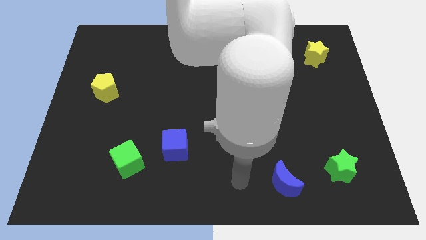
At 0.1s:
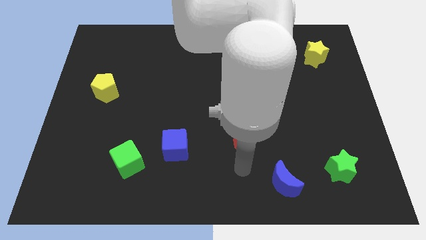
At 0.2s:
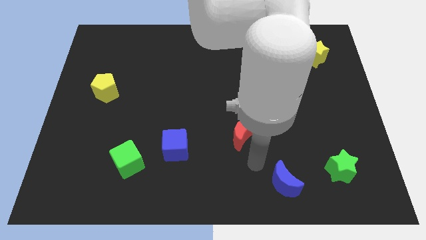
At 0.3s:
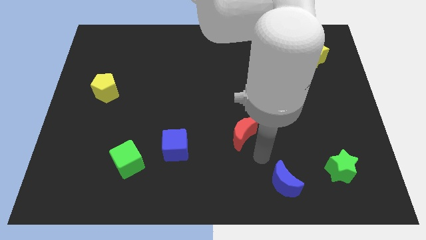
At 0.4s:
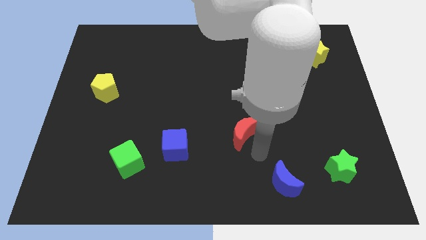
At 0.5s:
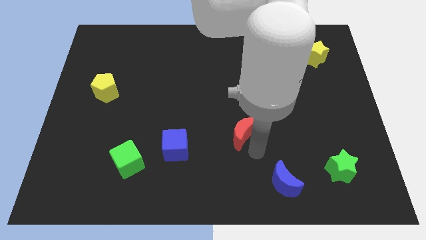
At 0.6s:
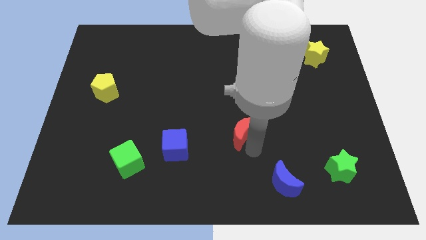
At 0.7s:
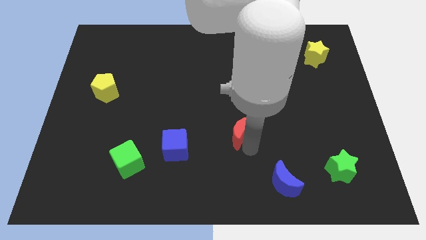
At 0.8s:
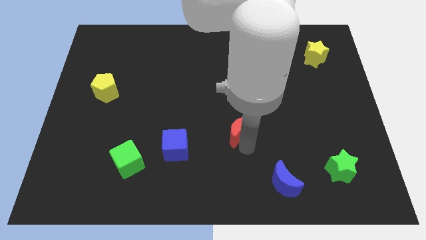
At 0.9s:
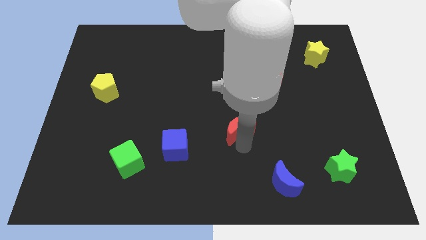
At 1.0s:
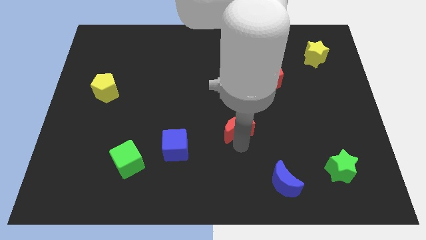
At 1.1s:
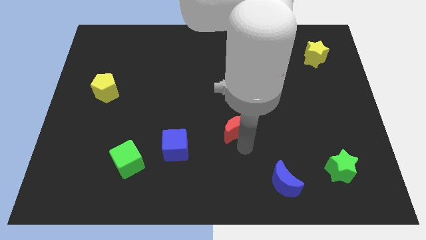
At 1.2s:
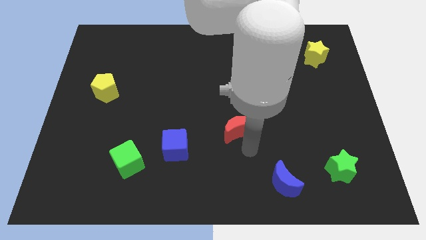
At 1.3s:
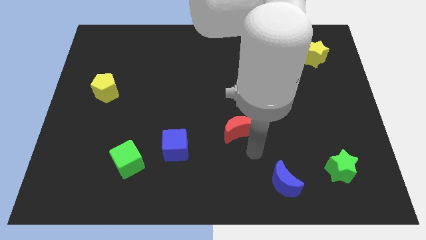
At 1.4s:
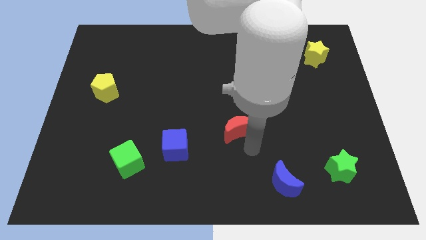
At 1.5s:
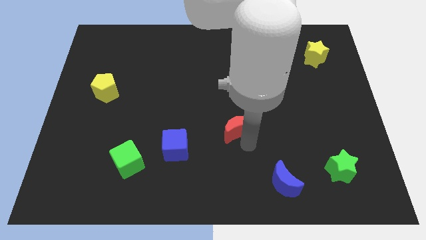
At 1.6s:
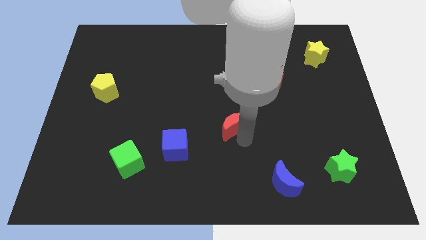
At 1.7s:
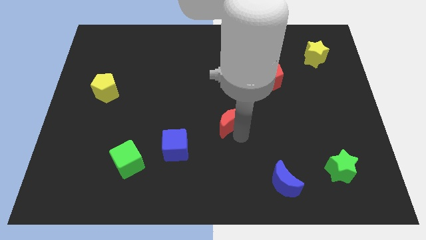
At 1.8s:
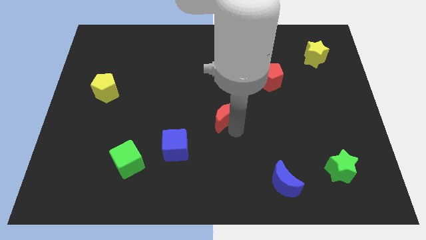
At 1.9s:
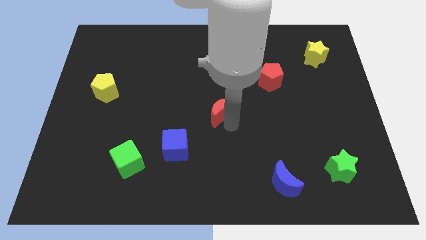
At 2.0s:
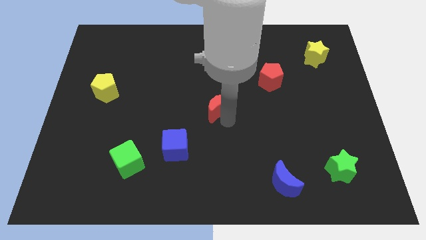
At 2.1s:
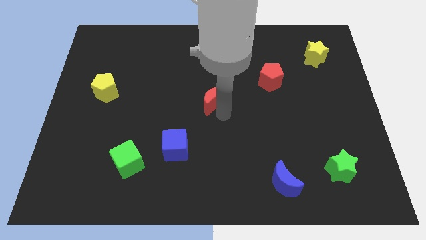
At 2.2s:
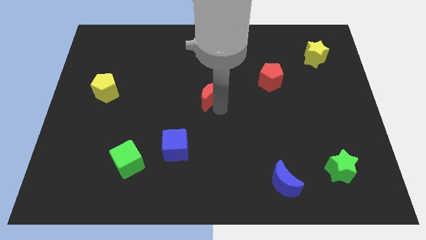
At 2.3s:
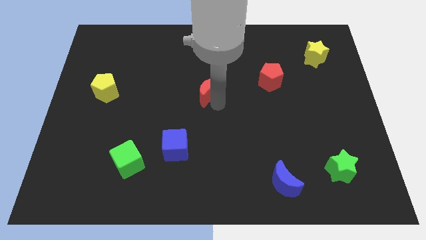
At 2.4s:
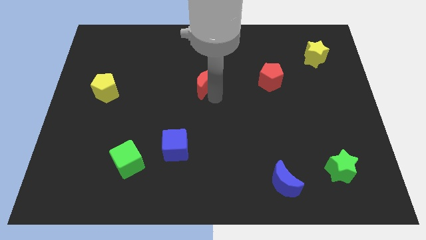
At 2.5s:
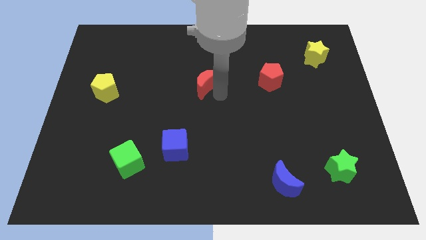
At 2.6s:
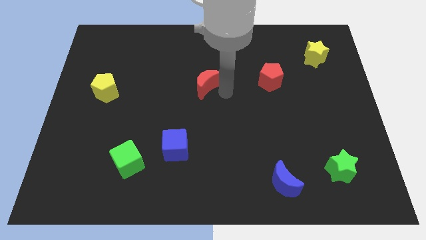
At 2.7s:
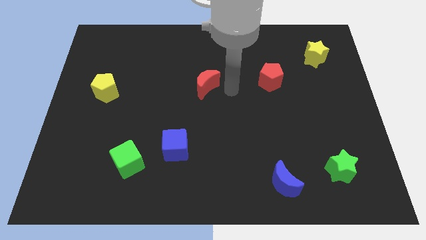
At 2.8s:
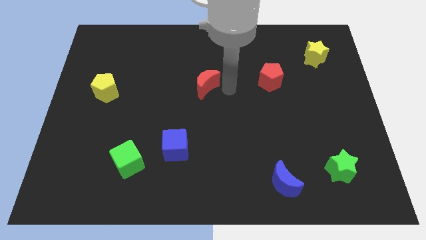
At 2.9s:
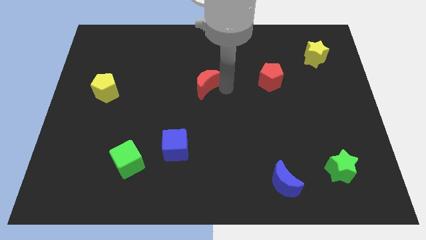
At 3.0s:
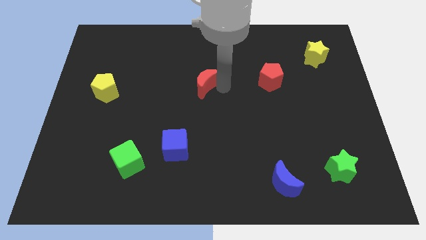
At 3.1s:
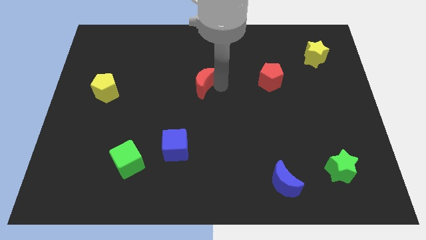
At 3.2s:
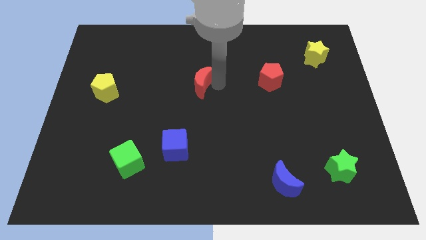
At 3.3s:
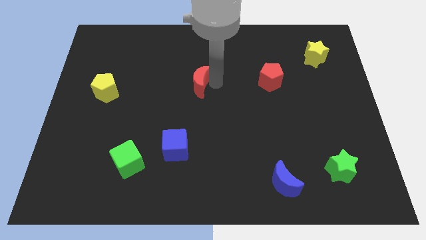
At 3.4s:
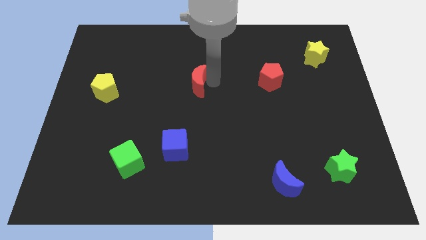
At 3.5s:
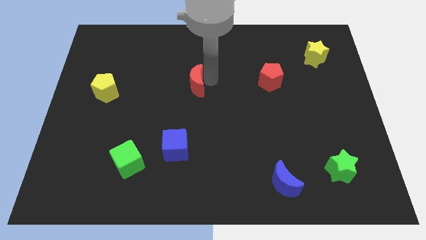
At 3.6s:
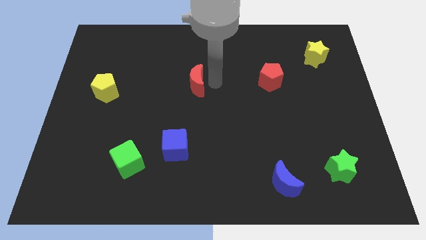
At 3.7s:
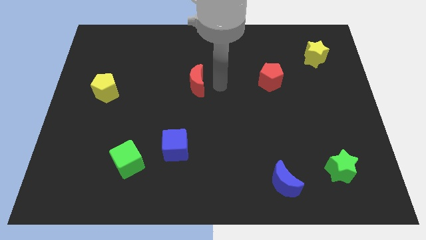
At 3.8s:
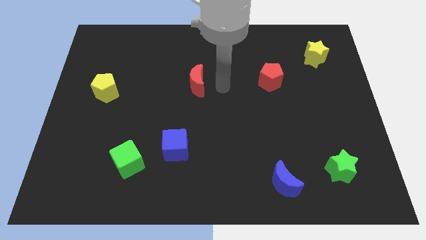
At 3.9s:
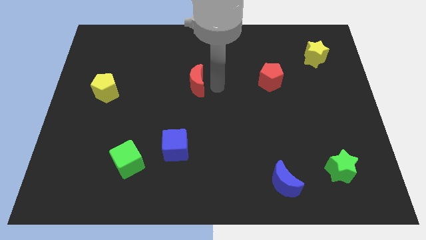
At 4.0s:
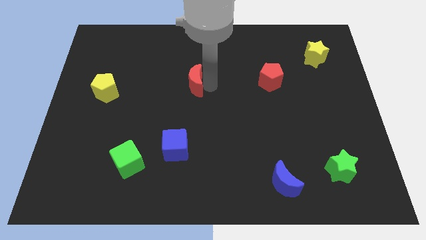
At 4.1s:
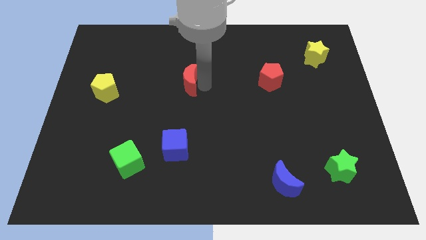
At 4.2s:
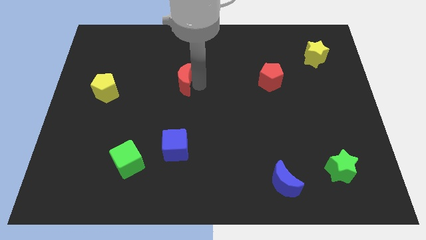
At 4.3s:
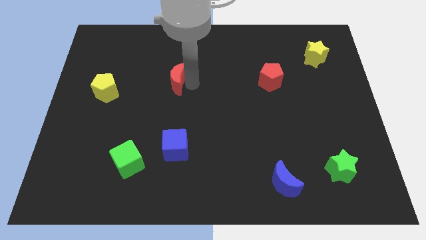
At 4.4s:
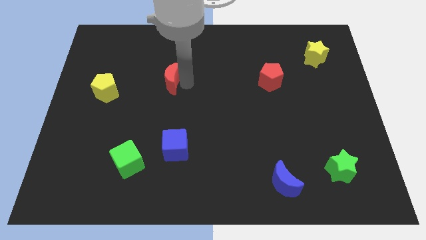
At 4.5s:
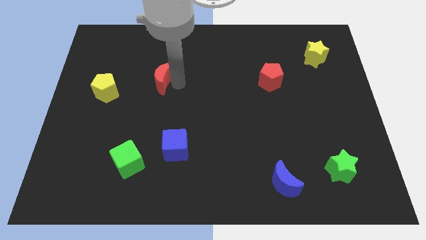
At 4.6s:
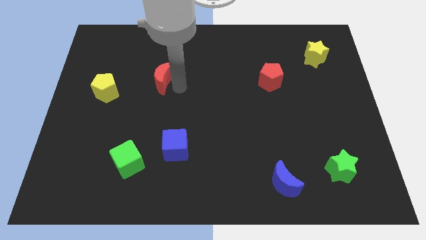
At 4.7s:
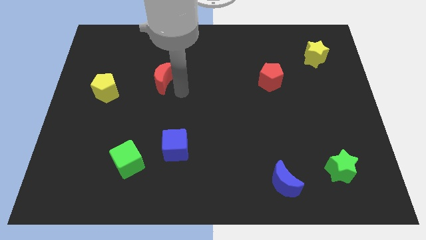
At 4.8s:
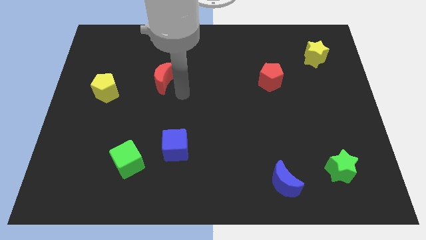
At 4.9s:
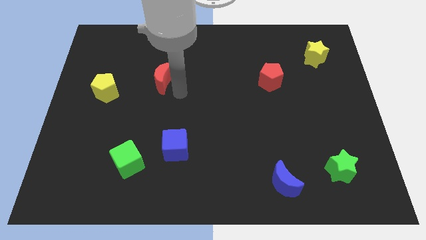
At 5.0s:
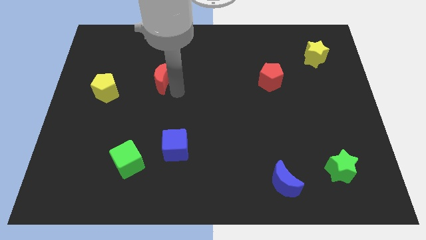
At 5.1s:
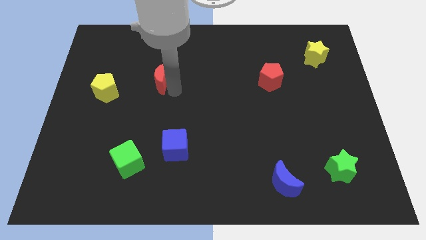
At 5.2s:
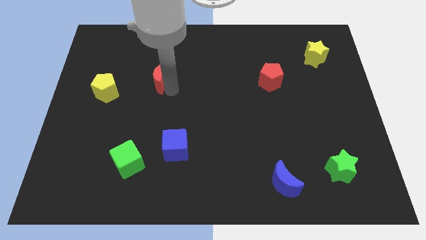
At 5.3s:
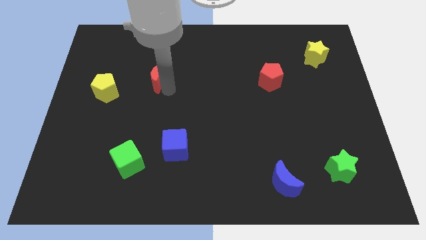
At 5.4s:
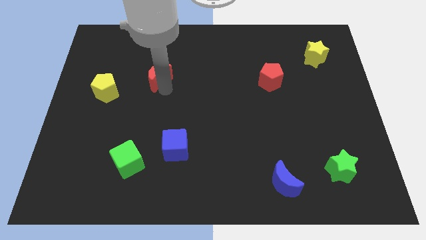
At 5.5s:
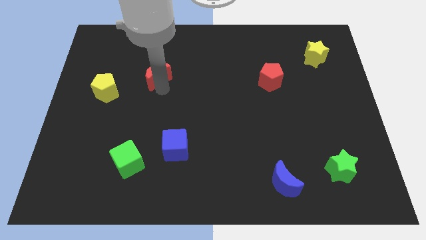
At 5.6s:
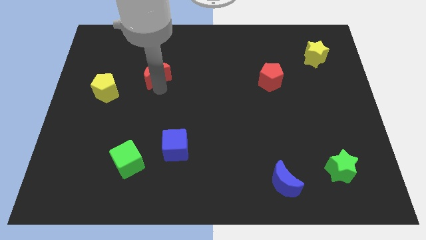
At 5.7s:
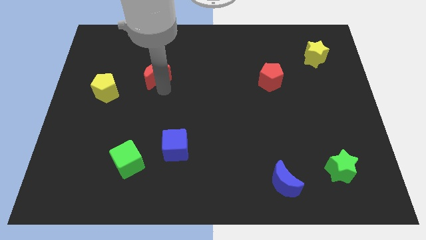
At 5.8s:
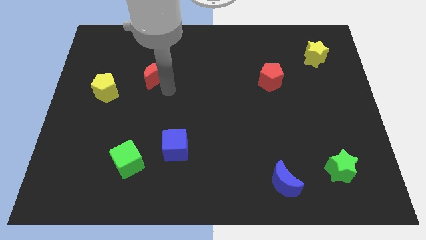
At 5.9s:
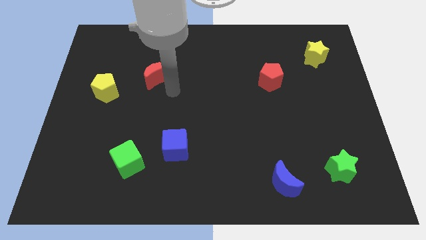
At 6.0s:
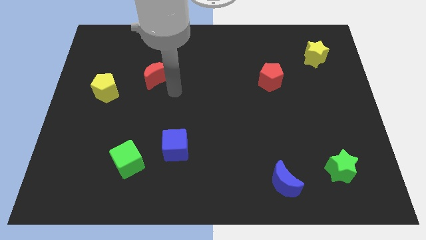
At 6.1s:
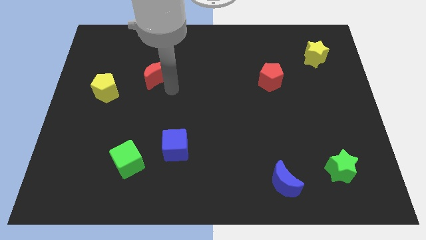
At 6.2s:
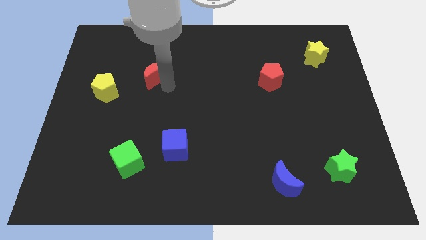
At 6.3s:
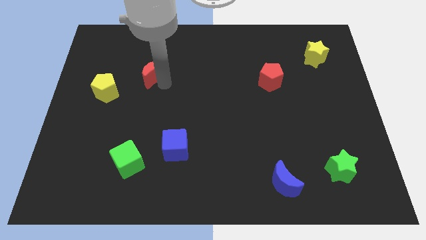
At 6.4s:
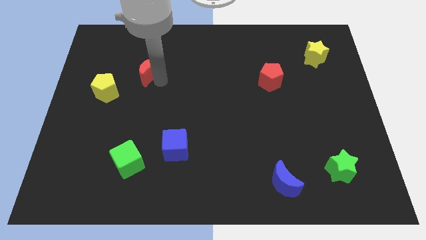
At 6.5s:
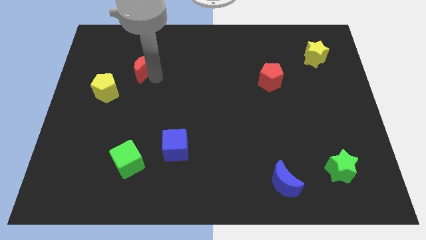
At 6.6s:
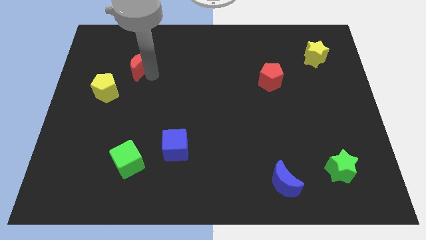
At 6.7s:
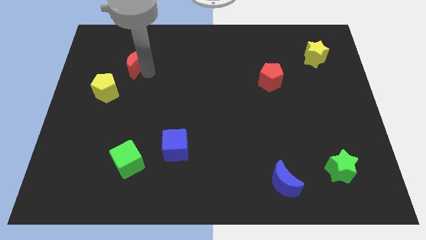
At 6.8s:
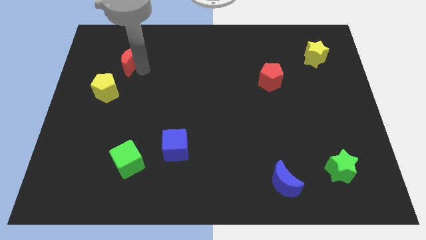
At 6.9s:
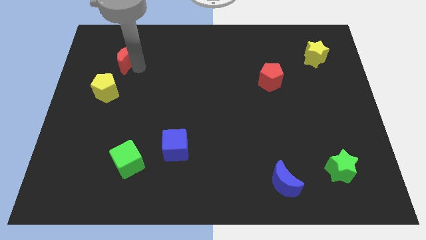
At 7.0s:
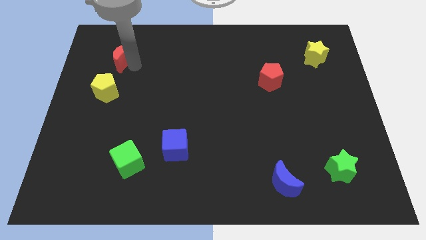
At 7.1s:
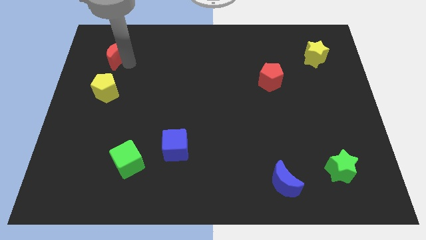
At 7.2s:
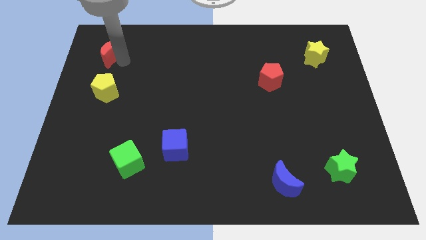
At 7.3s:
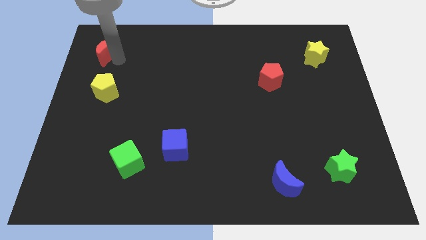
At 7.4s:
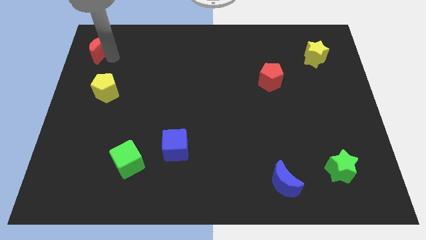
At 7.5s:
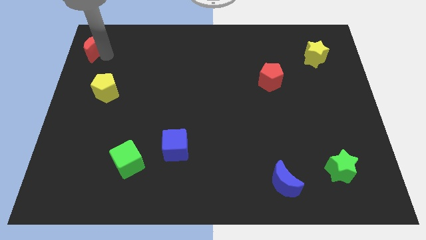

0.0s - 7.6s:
slide the red moon to the top left
